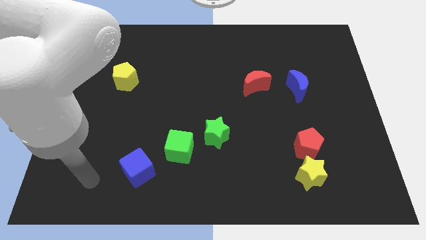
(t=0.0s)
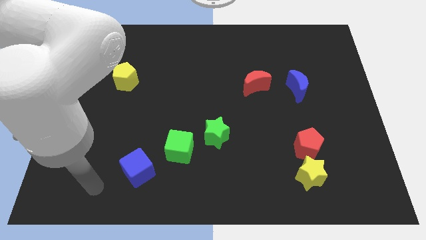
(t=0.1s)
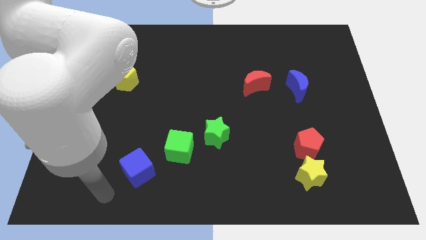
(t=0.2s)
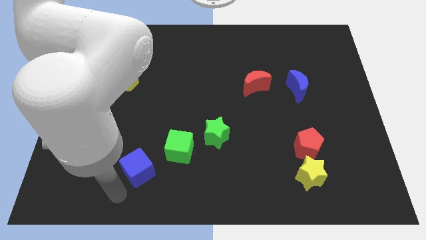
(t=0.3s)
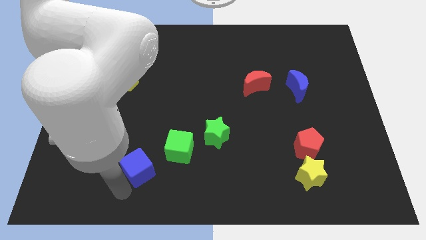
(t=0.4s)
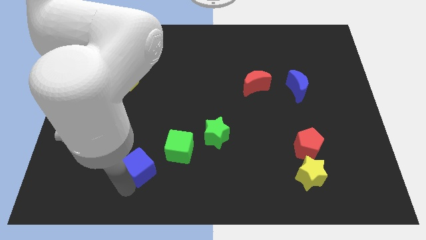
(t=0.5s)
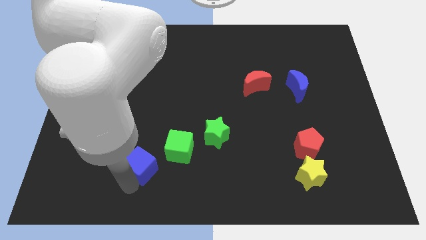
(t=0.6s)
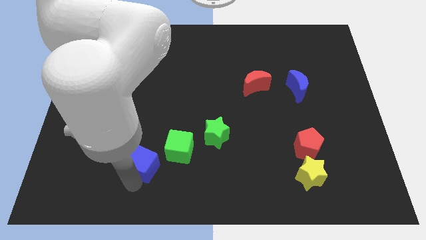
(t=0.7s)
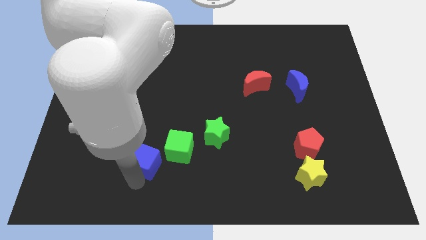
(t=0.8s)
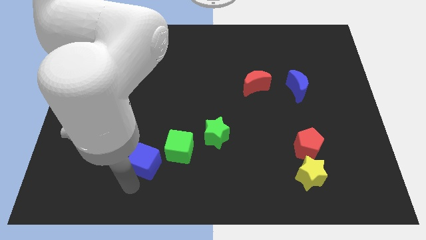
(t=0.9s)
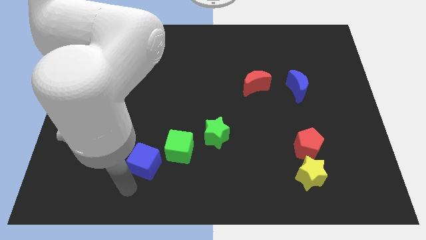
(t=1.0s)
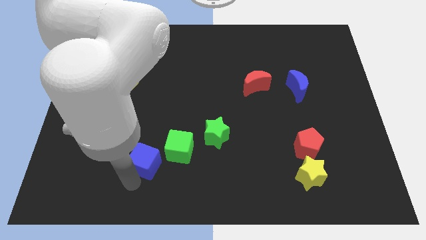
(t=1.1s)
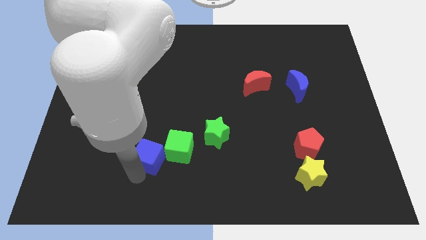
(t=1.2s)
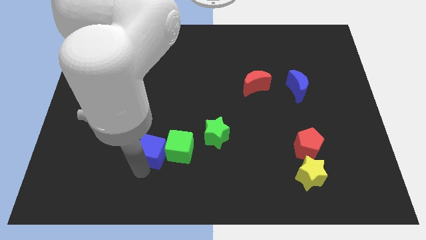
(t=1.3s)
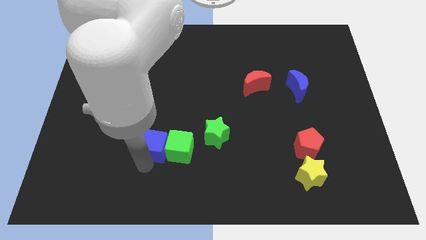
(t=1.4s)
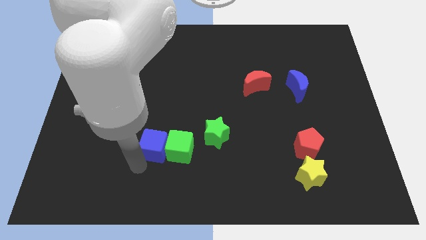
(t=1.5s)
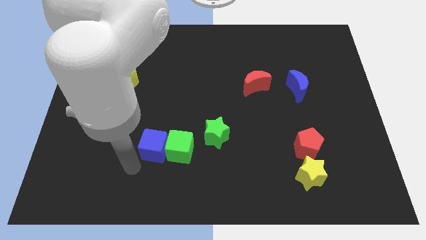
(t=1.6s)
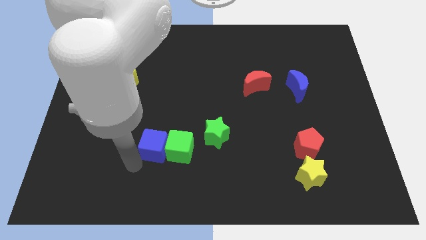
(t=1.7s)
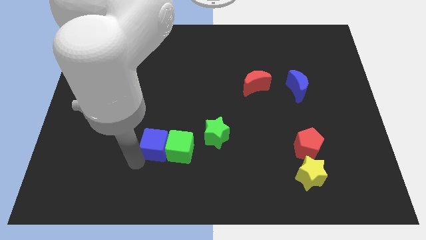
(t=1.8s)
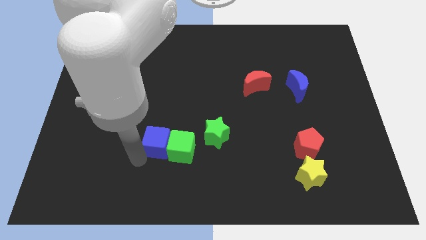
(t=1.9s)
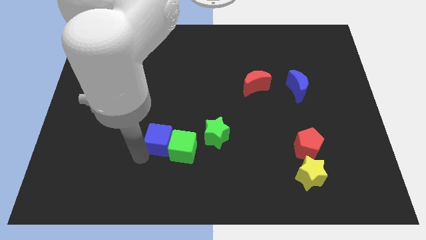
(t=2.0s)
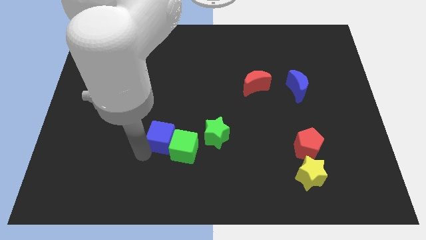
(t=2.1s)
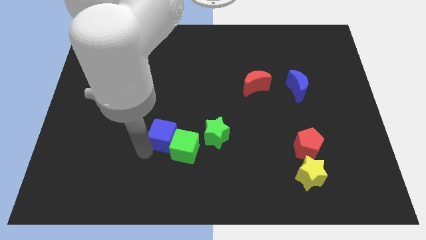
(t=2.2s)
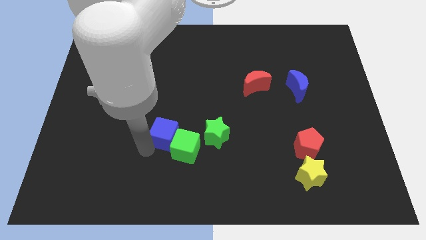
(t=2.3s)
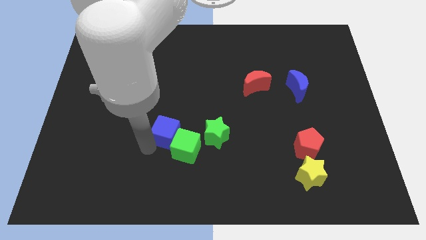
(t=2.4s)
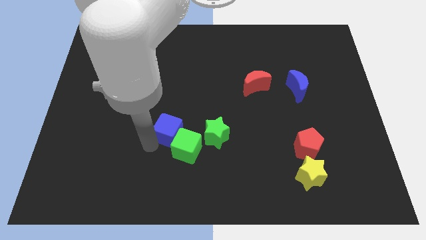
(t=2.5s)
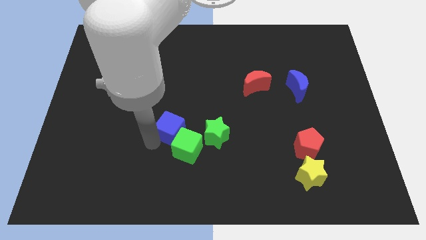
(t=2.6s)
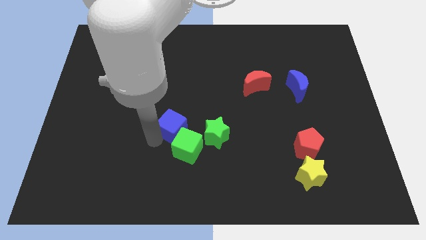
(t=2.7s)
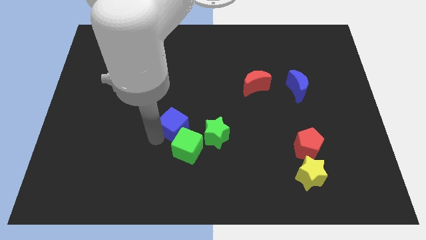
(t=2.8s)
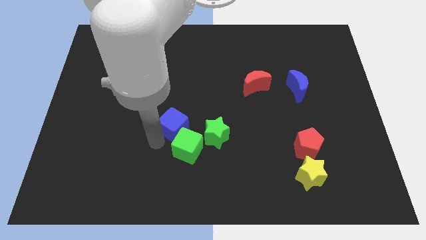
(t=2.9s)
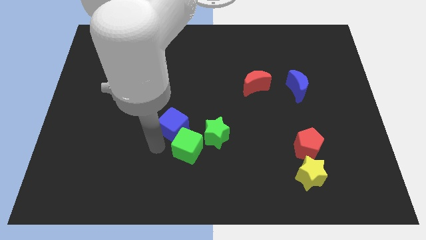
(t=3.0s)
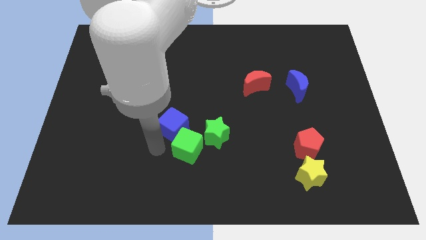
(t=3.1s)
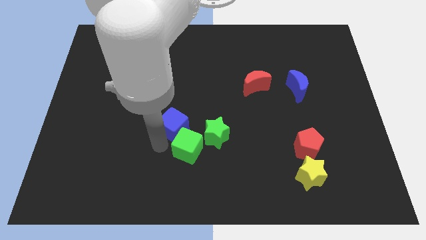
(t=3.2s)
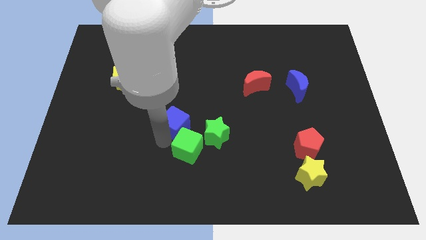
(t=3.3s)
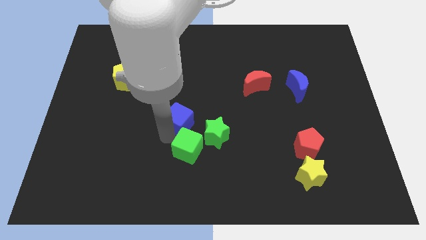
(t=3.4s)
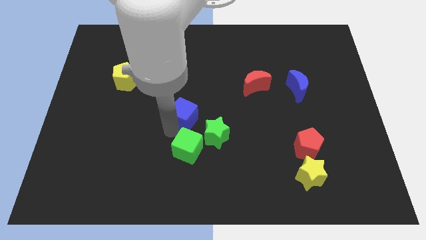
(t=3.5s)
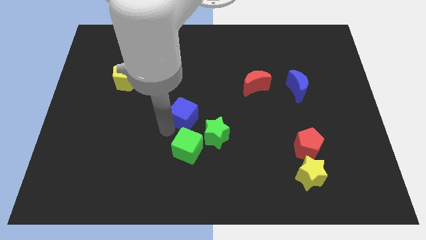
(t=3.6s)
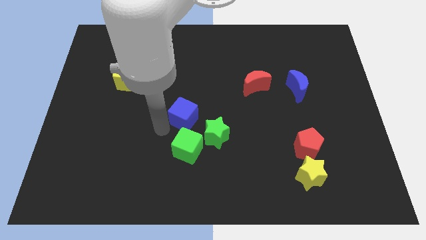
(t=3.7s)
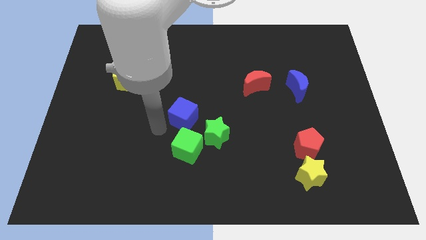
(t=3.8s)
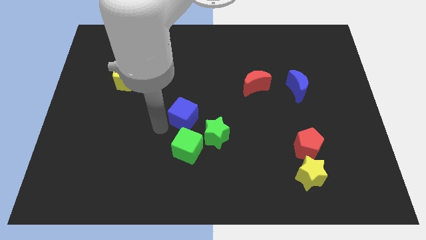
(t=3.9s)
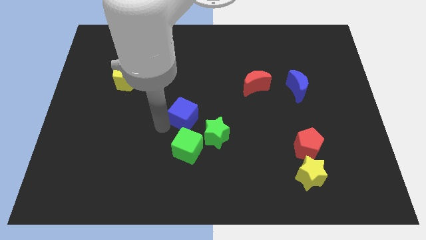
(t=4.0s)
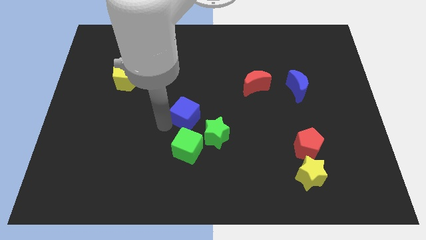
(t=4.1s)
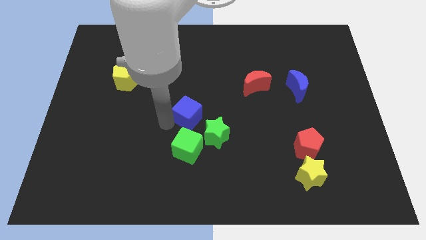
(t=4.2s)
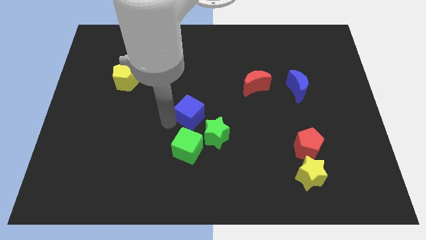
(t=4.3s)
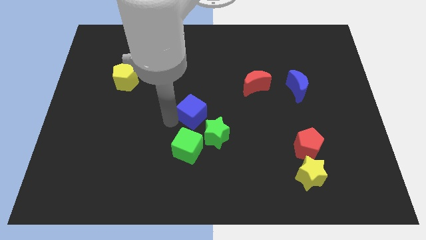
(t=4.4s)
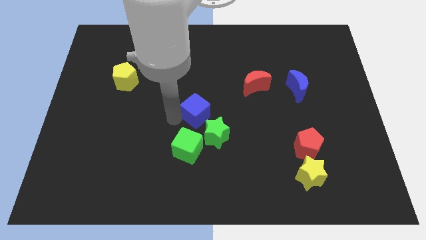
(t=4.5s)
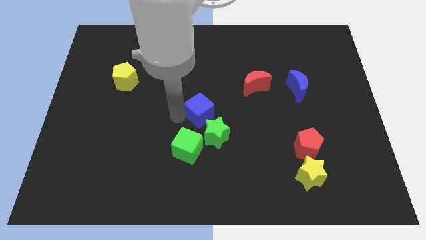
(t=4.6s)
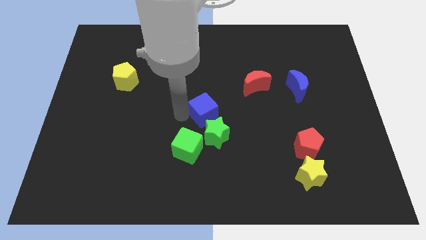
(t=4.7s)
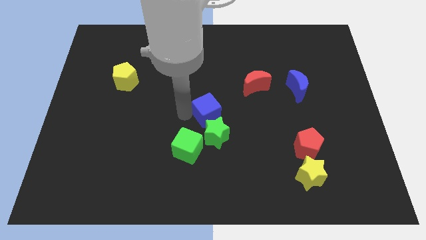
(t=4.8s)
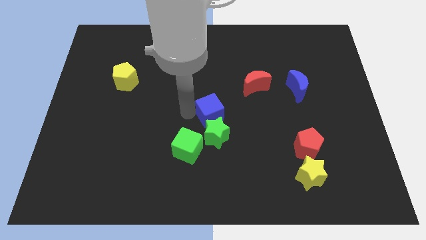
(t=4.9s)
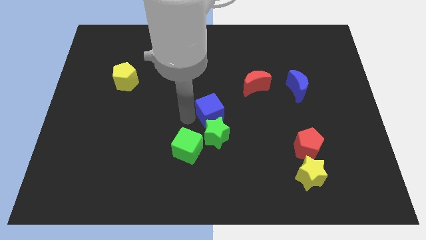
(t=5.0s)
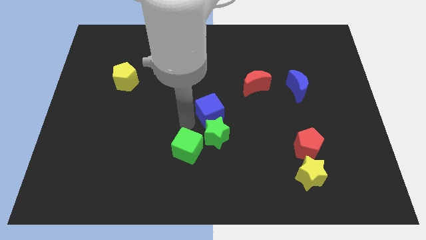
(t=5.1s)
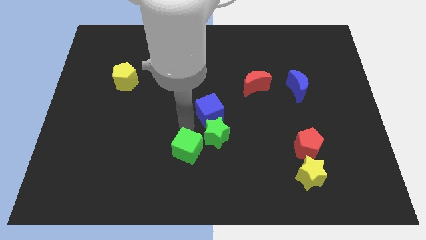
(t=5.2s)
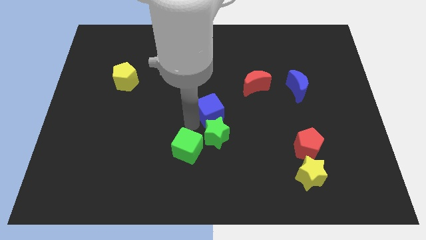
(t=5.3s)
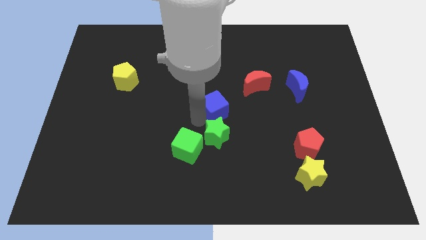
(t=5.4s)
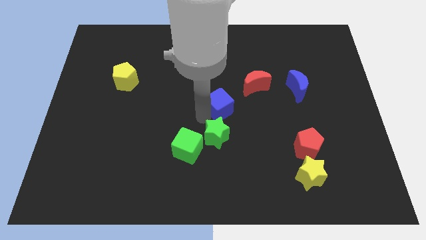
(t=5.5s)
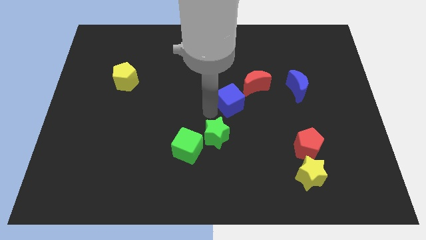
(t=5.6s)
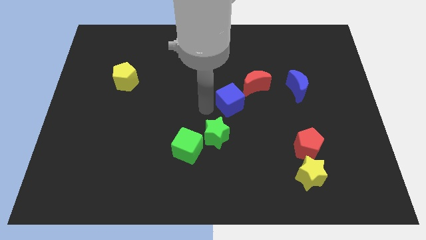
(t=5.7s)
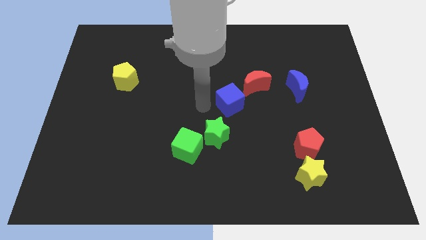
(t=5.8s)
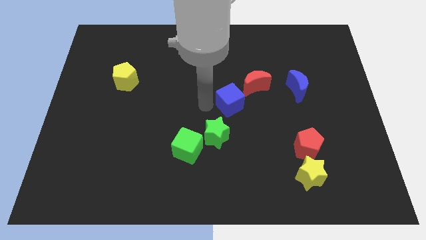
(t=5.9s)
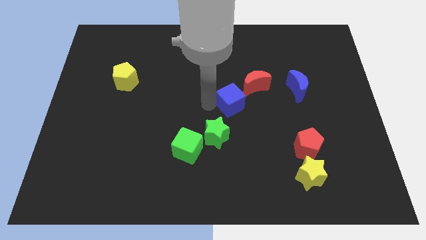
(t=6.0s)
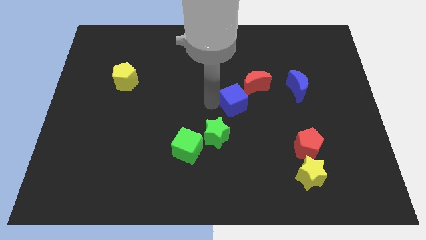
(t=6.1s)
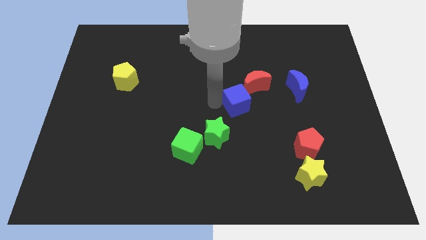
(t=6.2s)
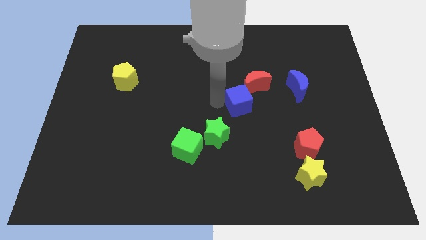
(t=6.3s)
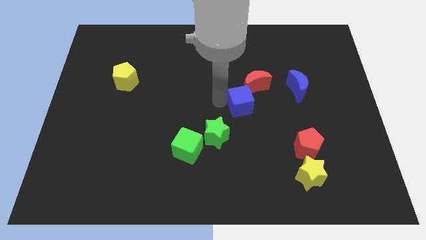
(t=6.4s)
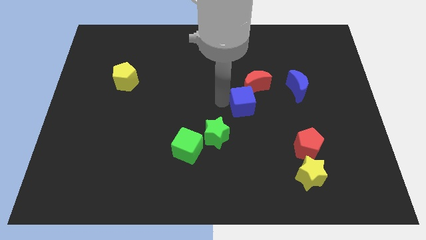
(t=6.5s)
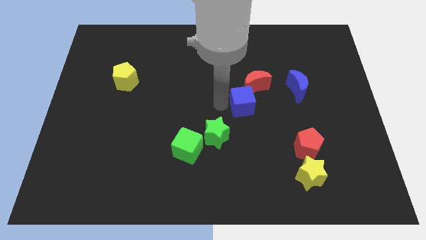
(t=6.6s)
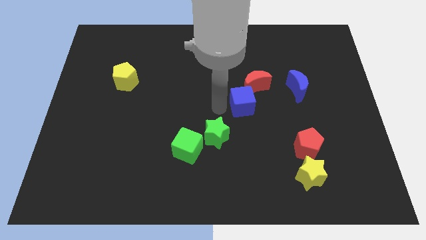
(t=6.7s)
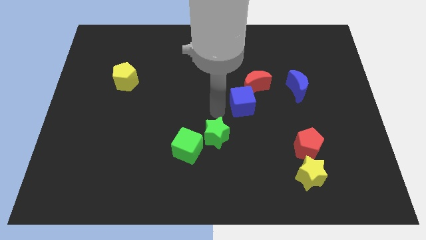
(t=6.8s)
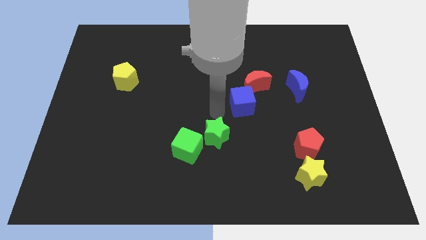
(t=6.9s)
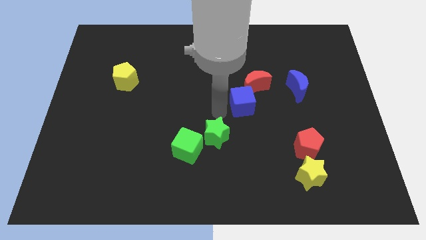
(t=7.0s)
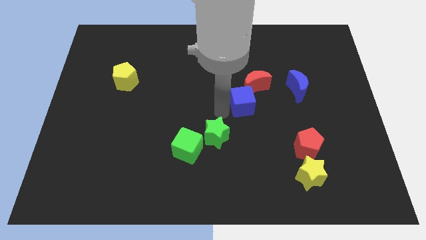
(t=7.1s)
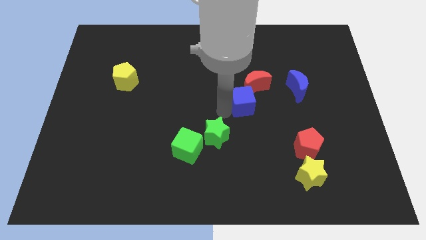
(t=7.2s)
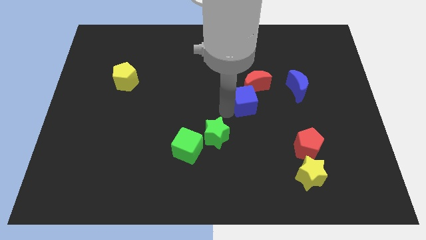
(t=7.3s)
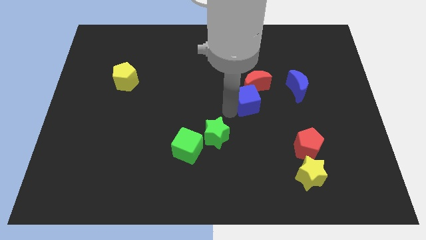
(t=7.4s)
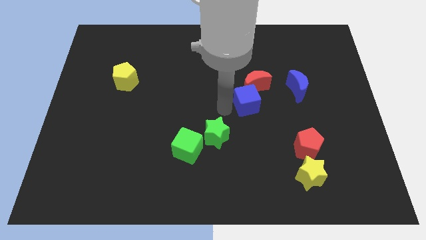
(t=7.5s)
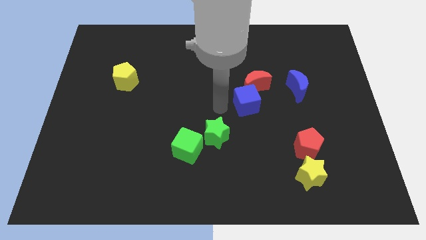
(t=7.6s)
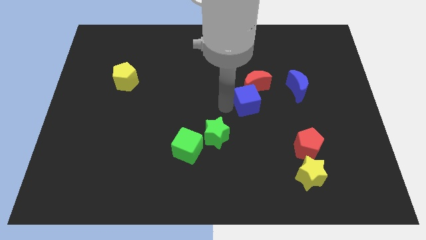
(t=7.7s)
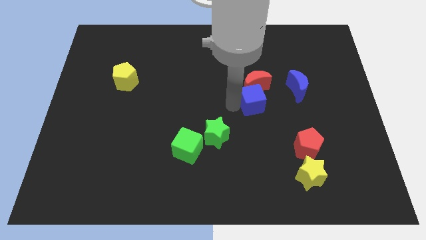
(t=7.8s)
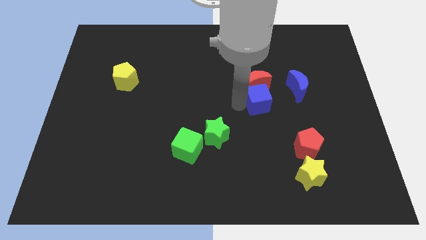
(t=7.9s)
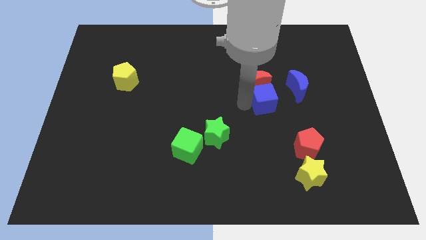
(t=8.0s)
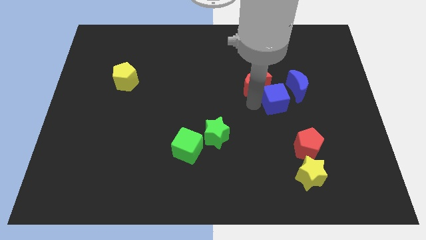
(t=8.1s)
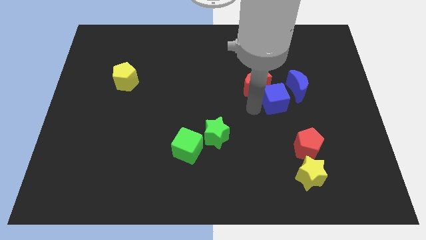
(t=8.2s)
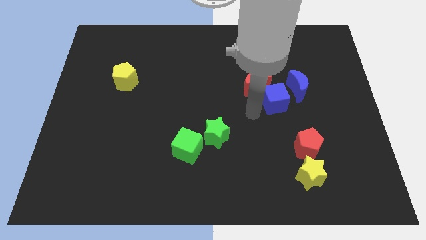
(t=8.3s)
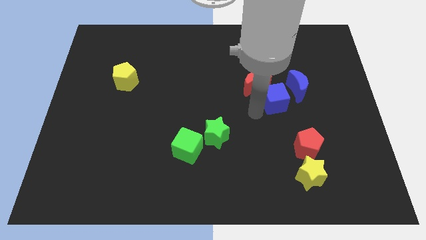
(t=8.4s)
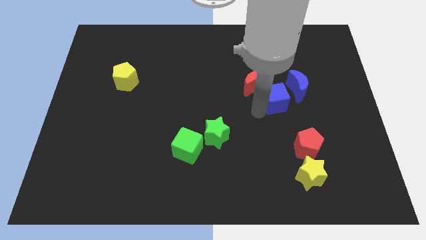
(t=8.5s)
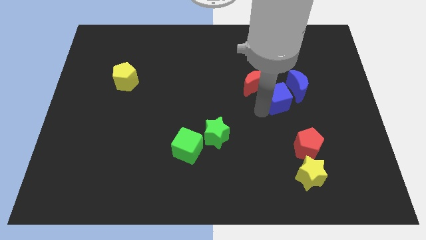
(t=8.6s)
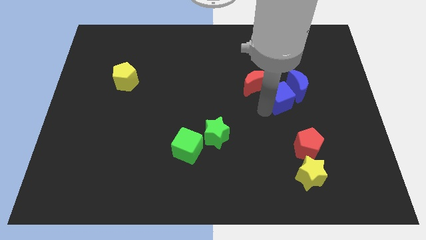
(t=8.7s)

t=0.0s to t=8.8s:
put the blue cube close to the blue moon
